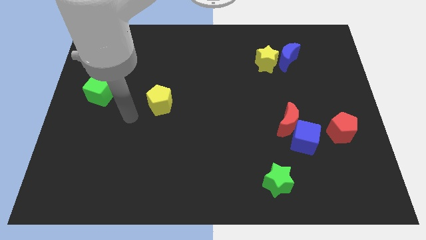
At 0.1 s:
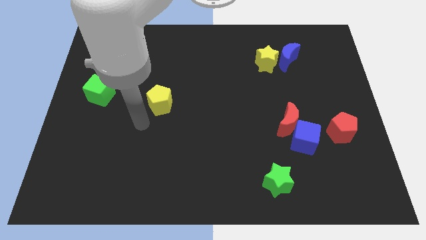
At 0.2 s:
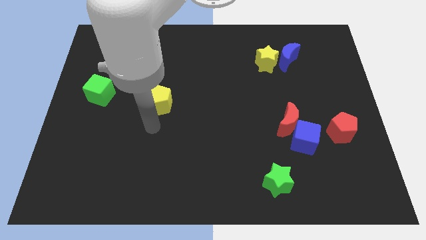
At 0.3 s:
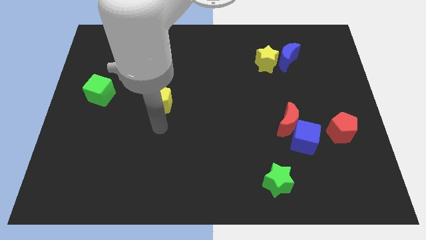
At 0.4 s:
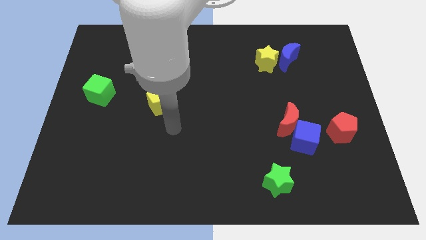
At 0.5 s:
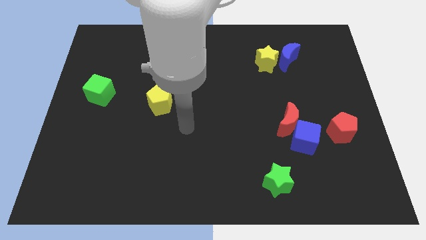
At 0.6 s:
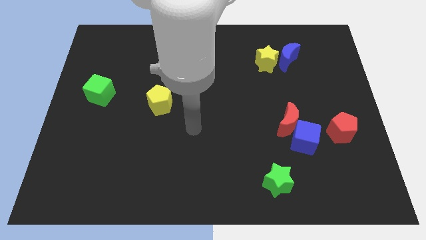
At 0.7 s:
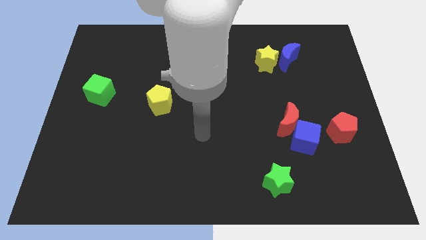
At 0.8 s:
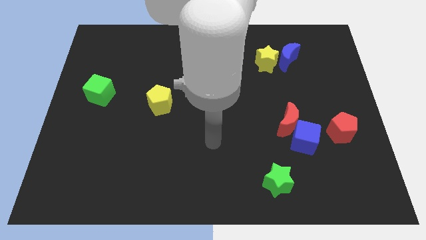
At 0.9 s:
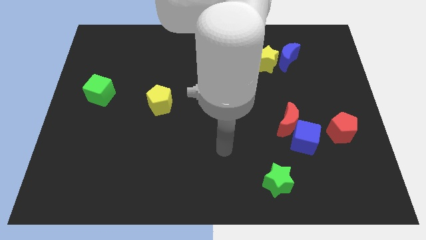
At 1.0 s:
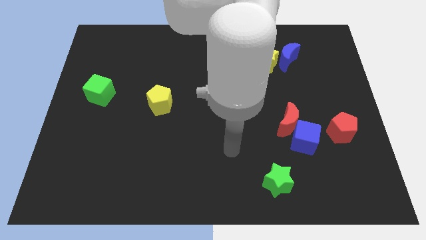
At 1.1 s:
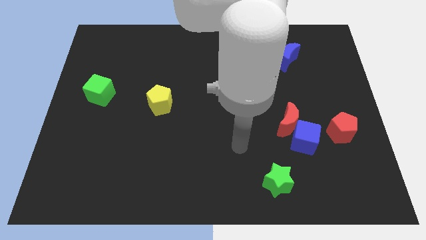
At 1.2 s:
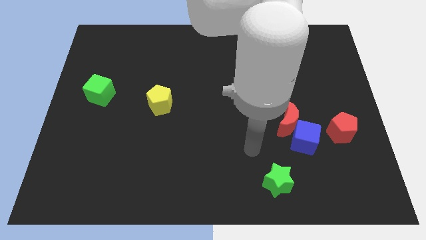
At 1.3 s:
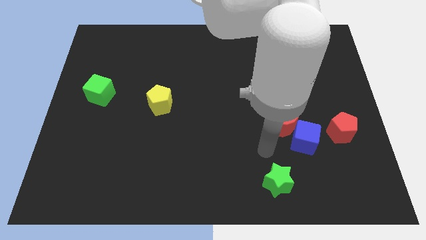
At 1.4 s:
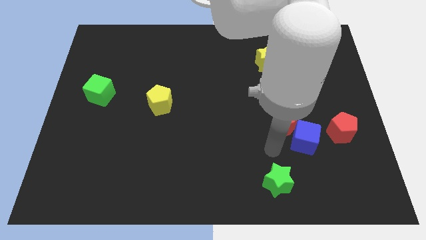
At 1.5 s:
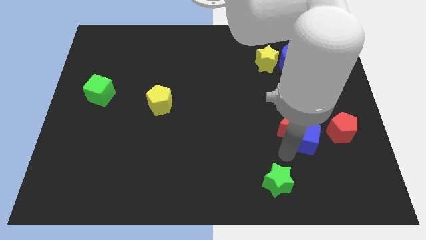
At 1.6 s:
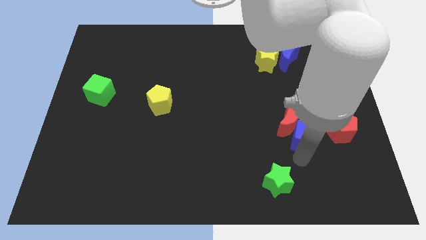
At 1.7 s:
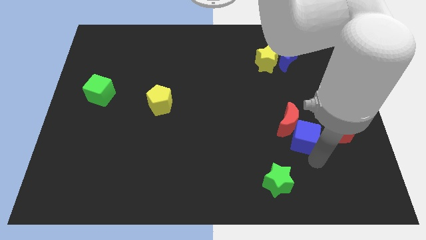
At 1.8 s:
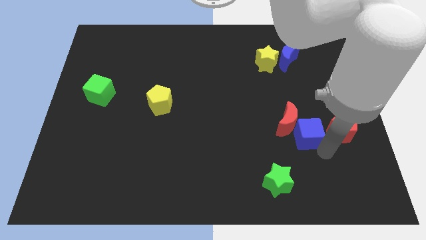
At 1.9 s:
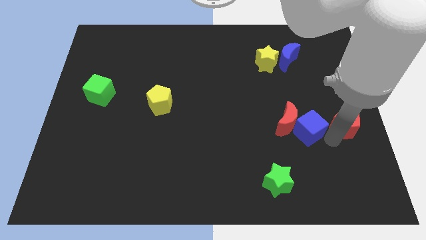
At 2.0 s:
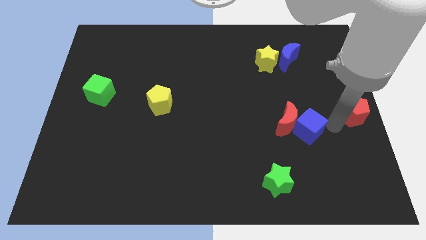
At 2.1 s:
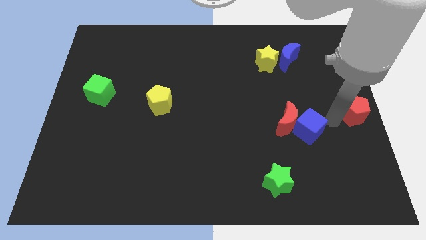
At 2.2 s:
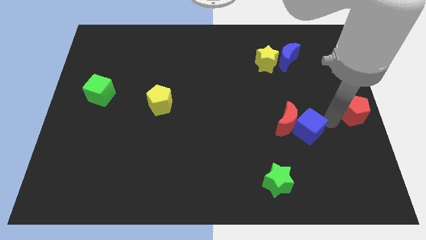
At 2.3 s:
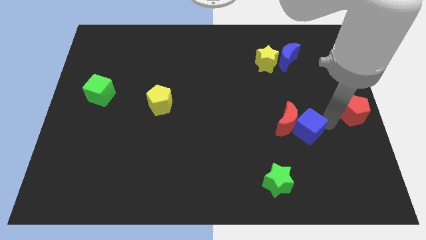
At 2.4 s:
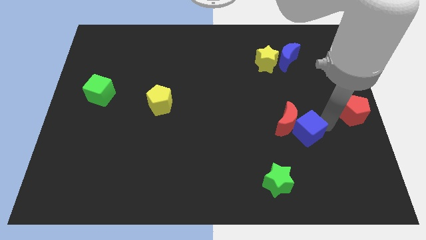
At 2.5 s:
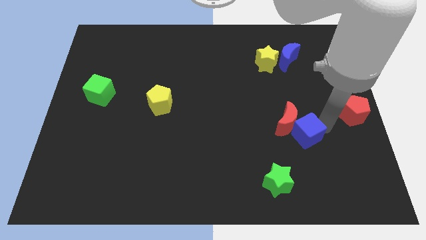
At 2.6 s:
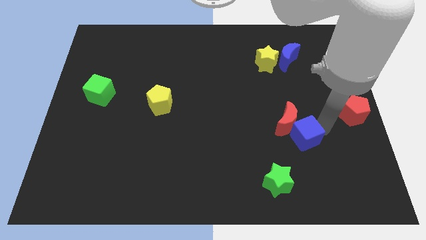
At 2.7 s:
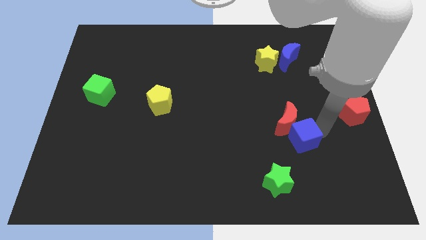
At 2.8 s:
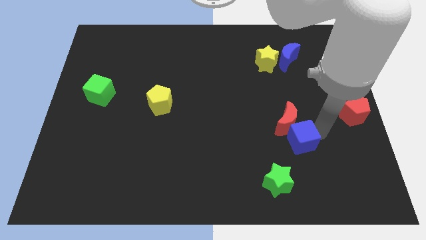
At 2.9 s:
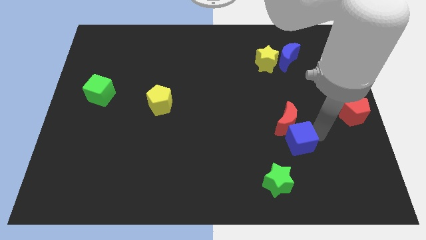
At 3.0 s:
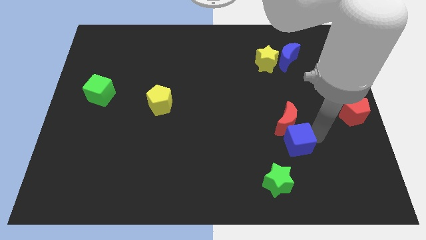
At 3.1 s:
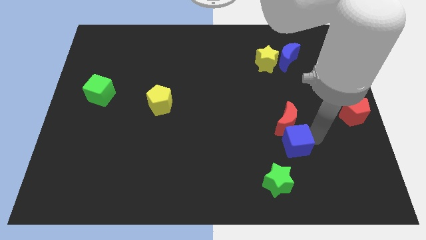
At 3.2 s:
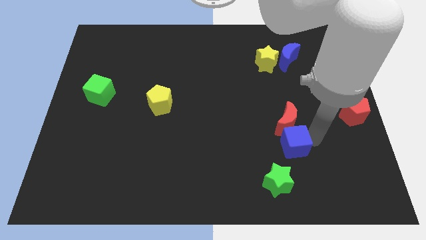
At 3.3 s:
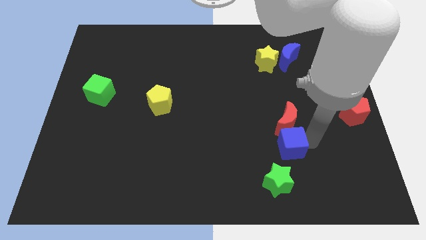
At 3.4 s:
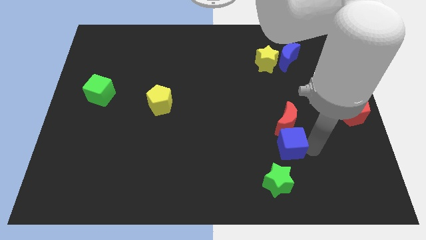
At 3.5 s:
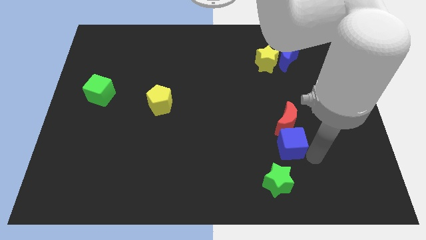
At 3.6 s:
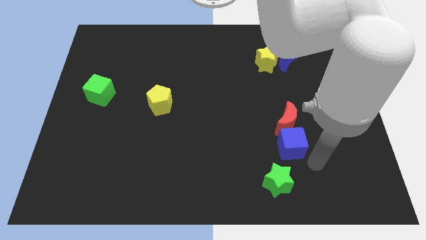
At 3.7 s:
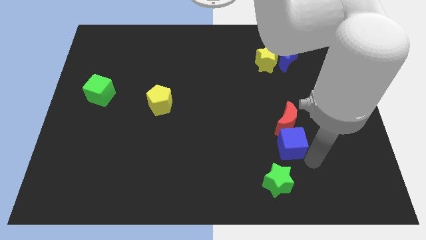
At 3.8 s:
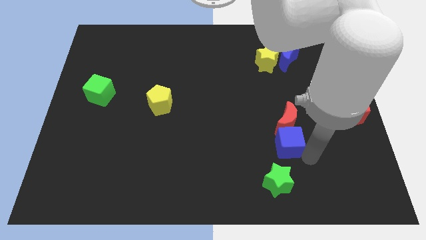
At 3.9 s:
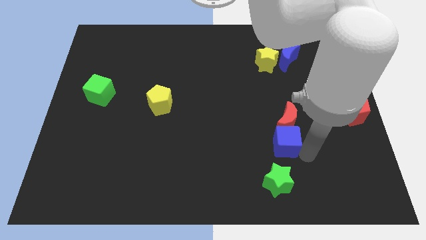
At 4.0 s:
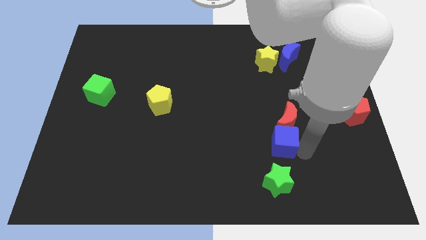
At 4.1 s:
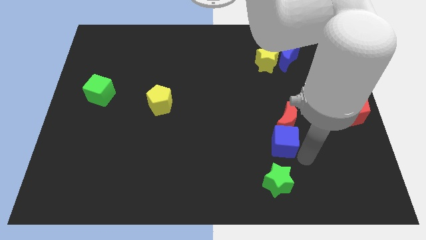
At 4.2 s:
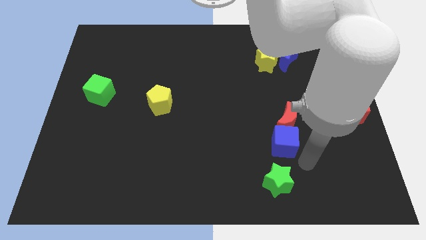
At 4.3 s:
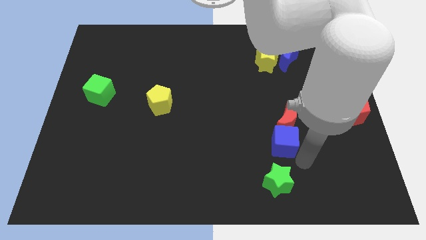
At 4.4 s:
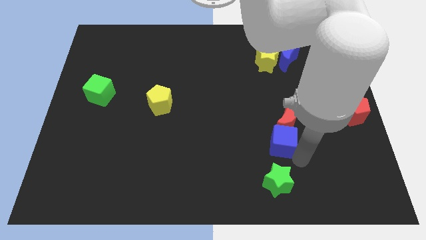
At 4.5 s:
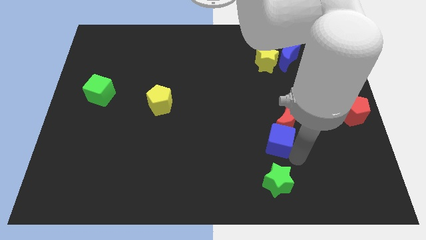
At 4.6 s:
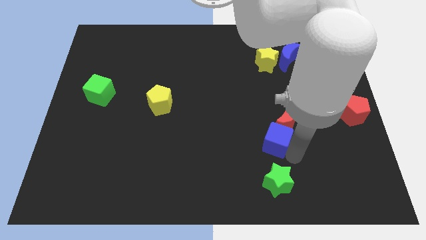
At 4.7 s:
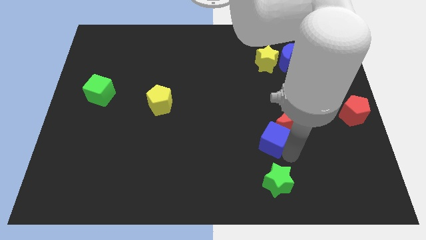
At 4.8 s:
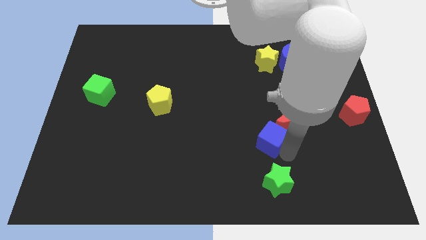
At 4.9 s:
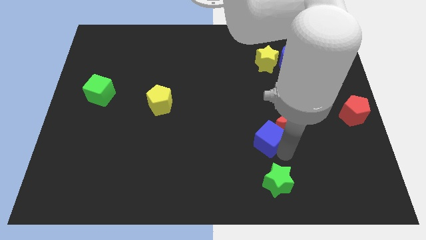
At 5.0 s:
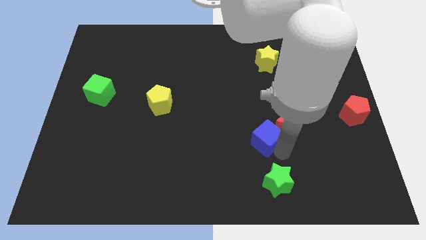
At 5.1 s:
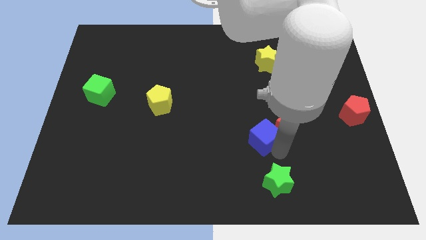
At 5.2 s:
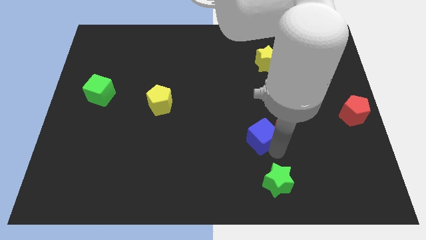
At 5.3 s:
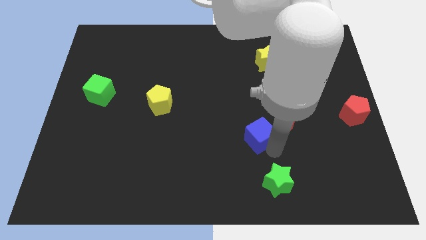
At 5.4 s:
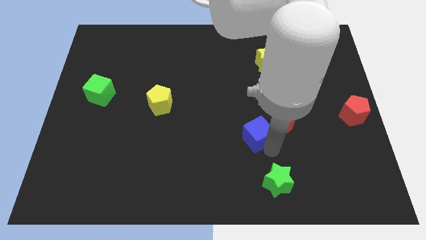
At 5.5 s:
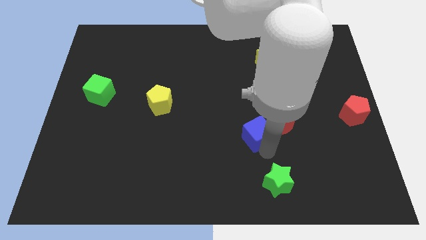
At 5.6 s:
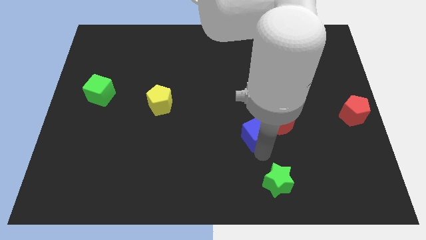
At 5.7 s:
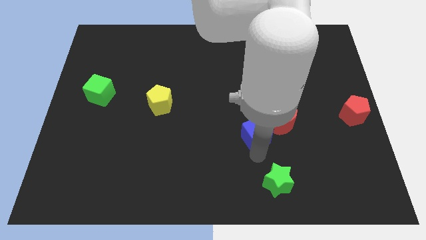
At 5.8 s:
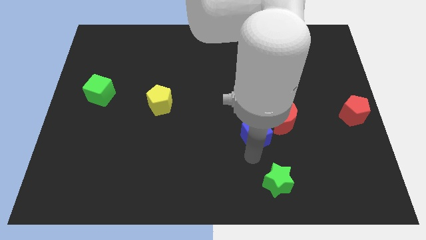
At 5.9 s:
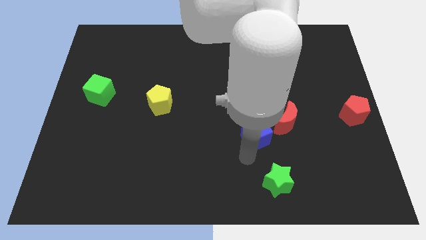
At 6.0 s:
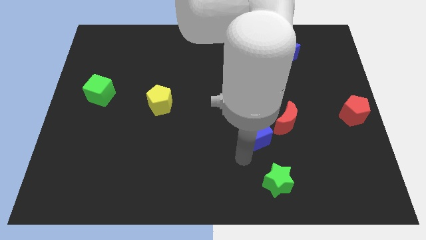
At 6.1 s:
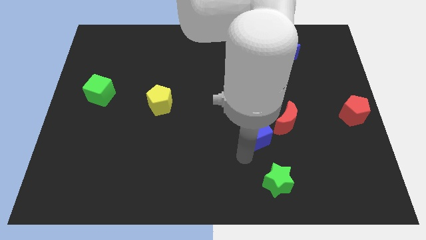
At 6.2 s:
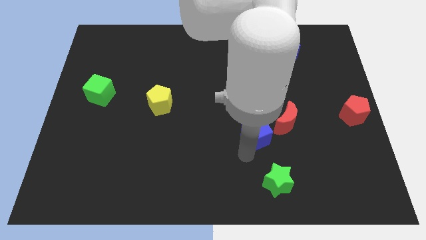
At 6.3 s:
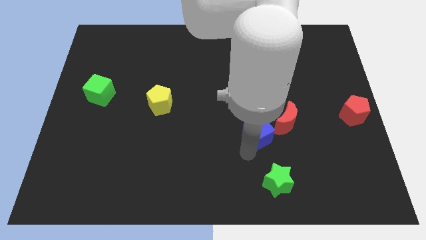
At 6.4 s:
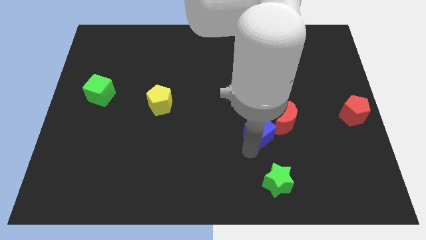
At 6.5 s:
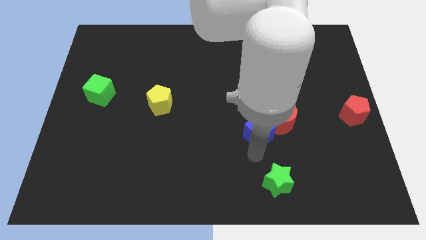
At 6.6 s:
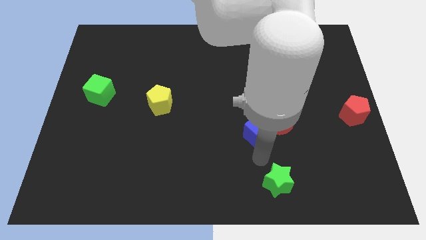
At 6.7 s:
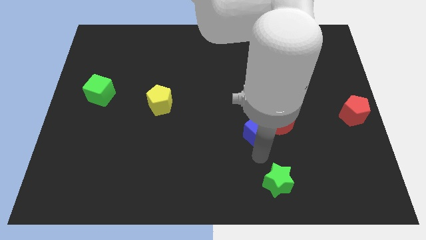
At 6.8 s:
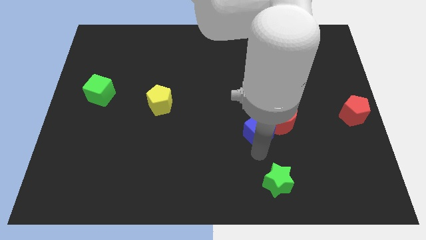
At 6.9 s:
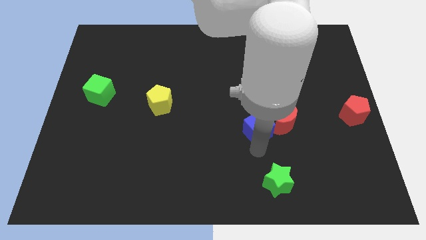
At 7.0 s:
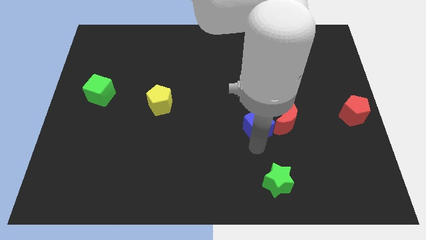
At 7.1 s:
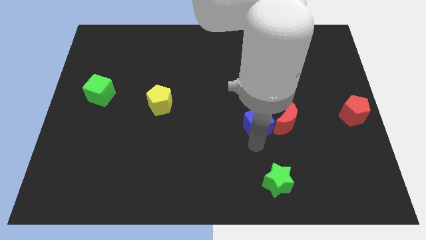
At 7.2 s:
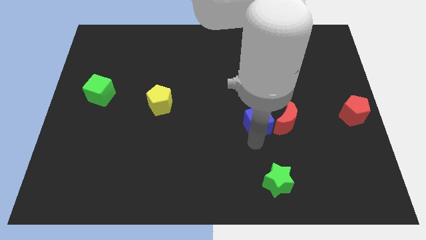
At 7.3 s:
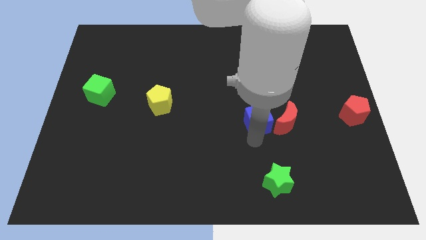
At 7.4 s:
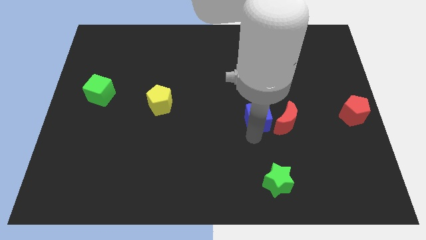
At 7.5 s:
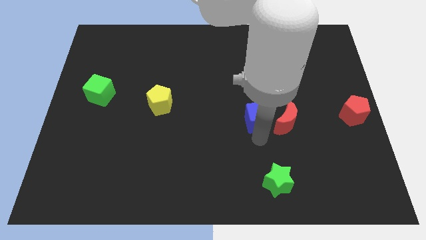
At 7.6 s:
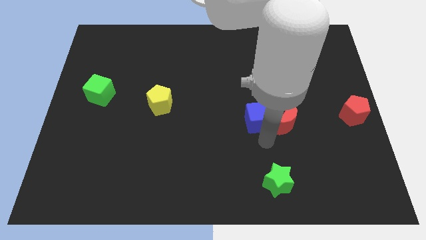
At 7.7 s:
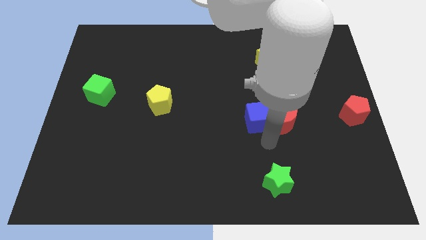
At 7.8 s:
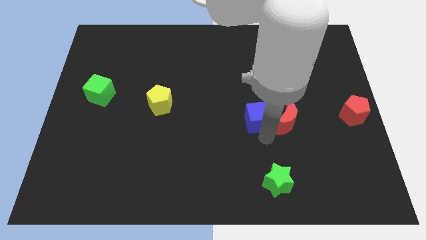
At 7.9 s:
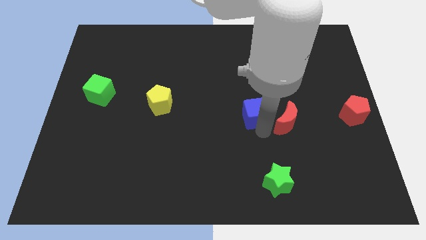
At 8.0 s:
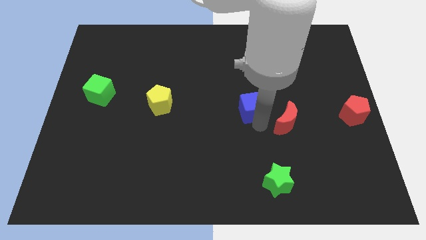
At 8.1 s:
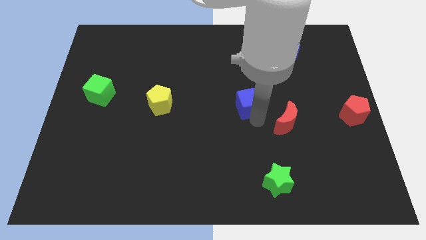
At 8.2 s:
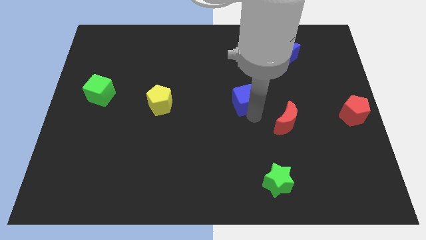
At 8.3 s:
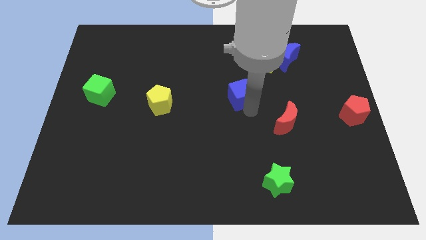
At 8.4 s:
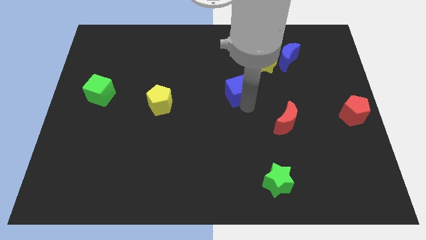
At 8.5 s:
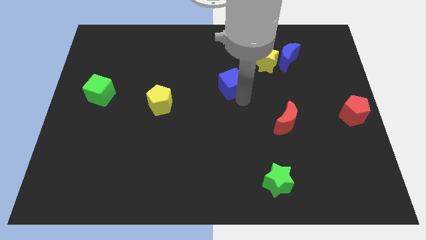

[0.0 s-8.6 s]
slide the blue cube up and to the left
